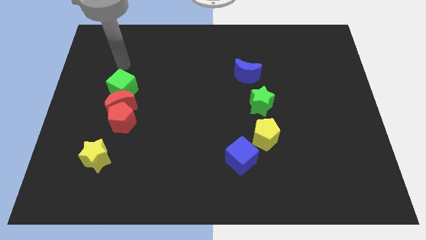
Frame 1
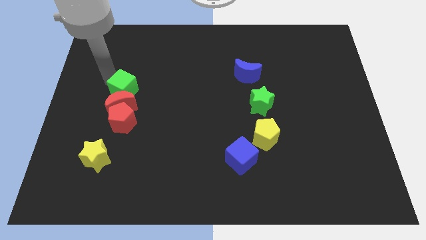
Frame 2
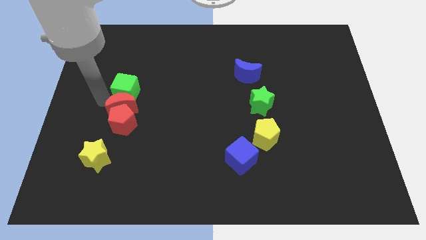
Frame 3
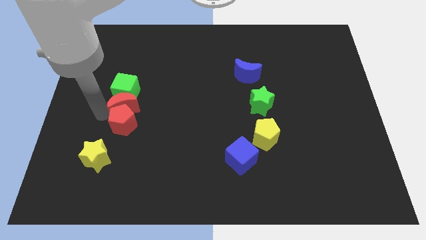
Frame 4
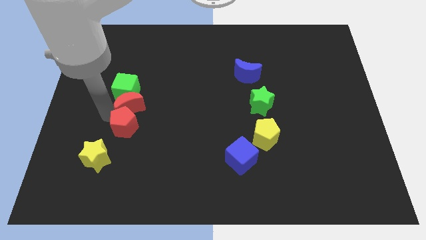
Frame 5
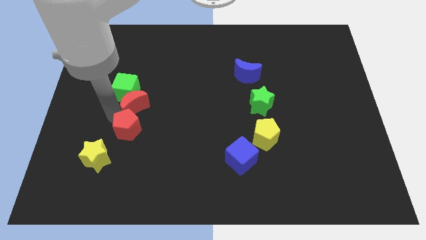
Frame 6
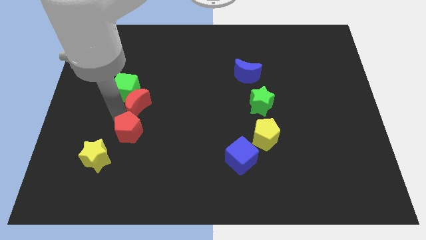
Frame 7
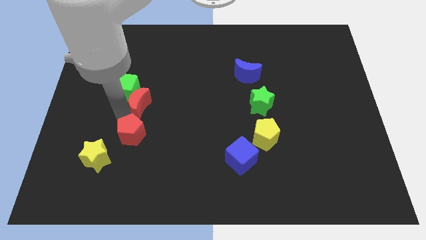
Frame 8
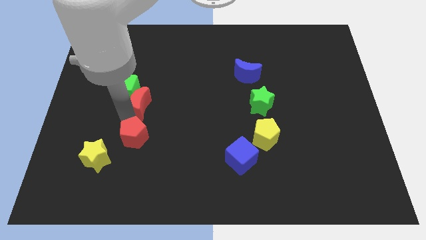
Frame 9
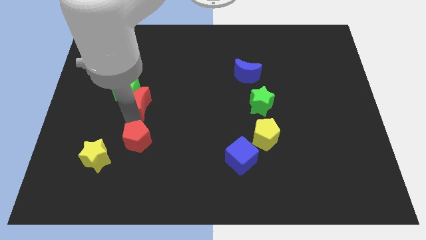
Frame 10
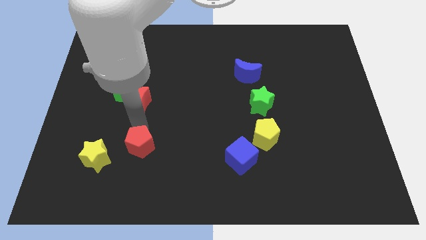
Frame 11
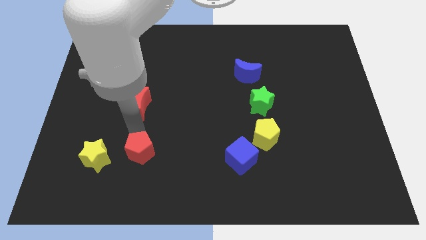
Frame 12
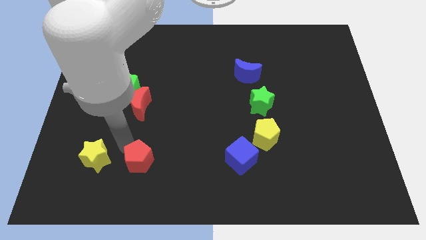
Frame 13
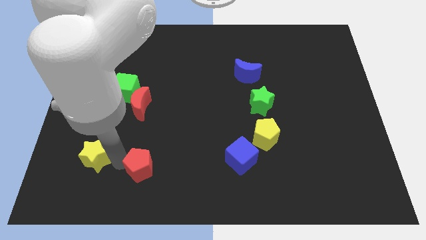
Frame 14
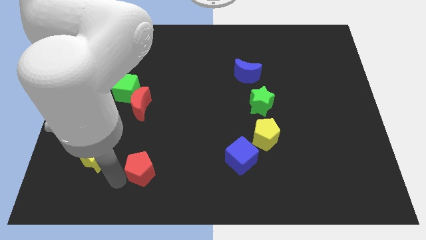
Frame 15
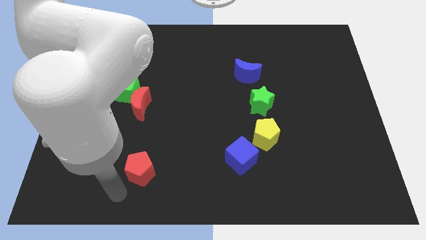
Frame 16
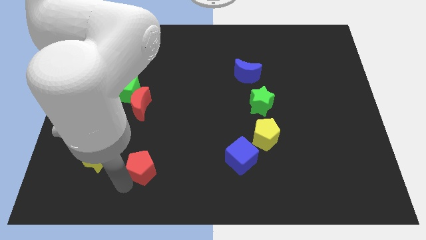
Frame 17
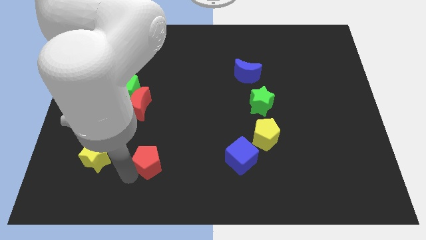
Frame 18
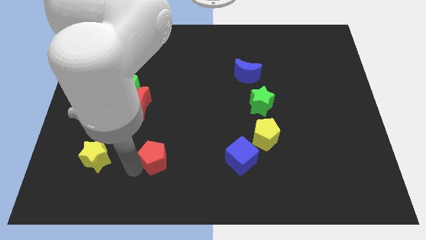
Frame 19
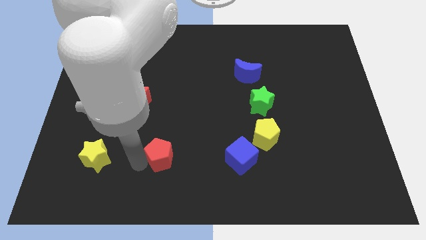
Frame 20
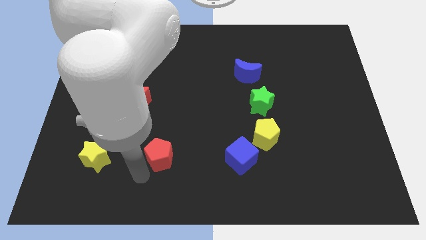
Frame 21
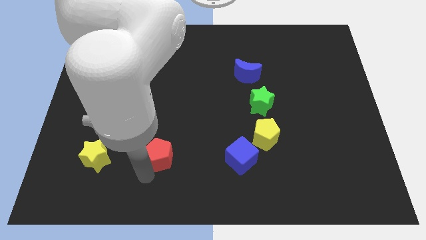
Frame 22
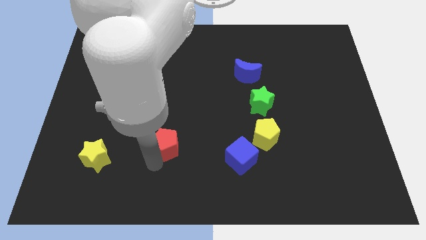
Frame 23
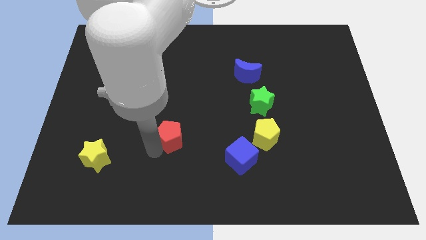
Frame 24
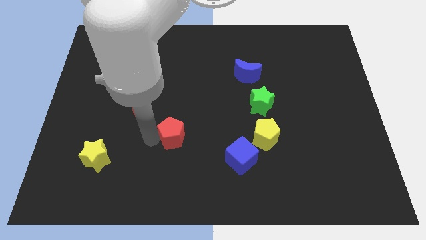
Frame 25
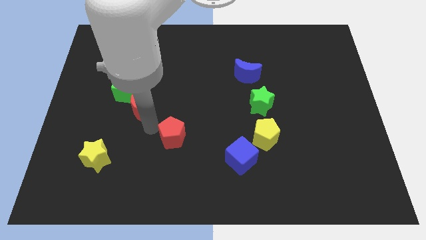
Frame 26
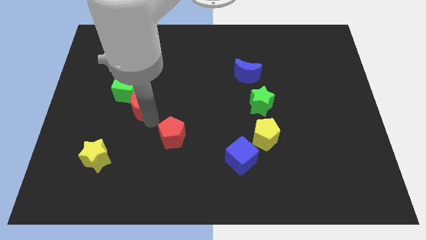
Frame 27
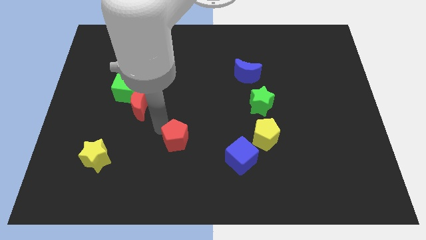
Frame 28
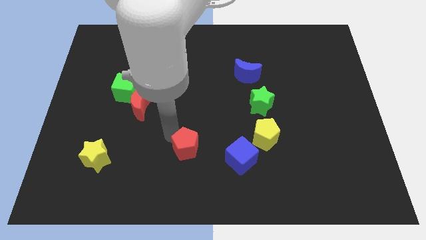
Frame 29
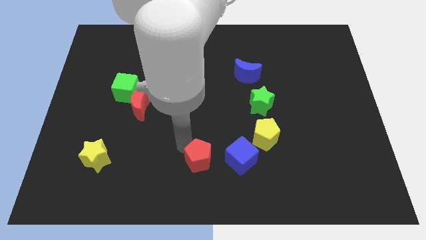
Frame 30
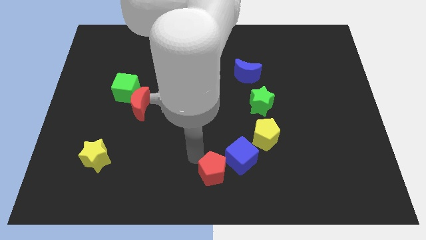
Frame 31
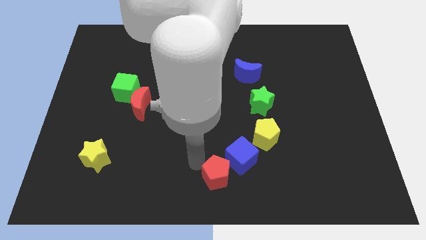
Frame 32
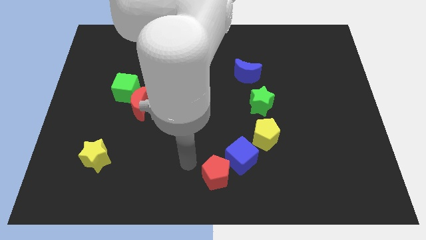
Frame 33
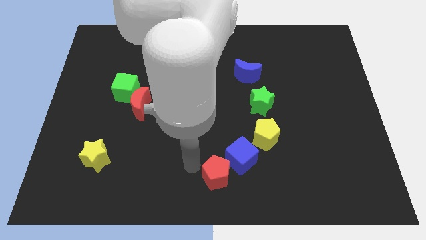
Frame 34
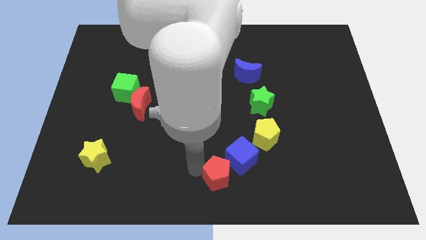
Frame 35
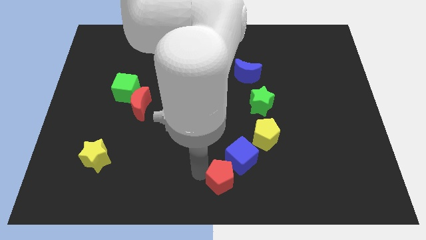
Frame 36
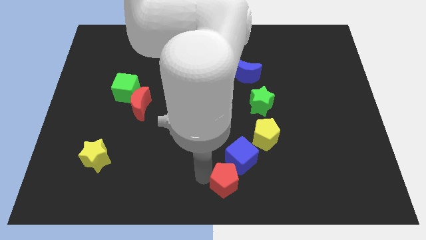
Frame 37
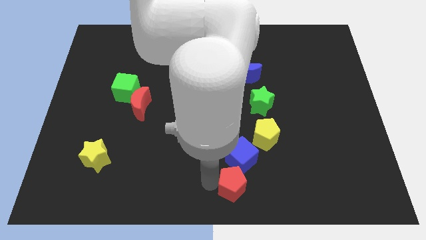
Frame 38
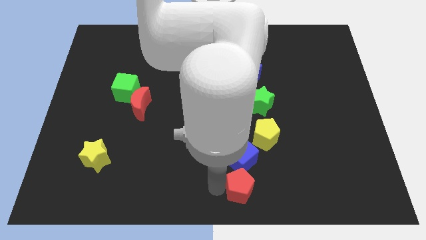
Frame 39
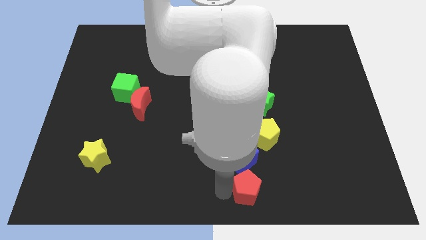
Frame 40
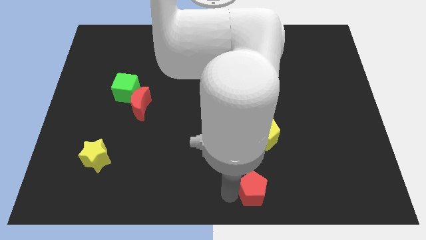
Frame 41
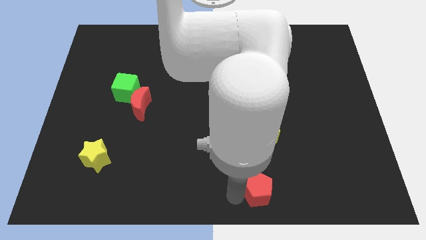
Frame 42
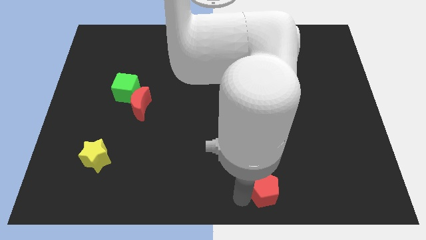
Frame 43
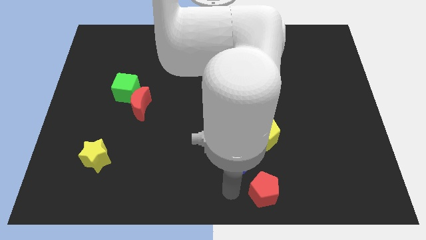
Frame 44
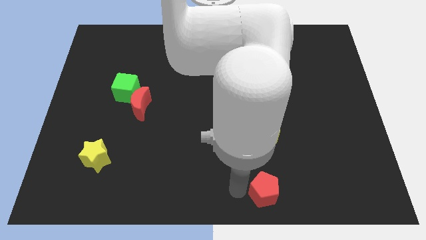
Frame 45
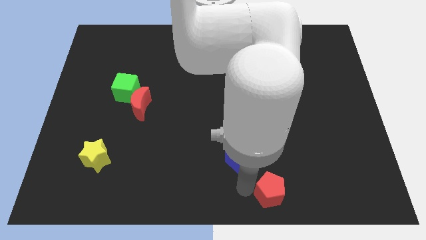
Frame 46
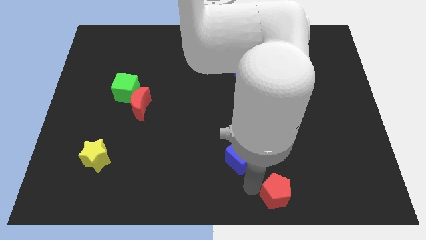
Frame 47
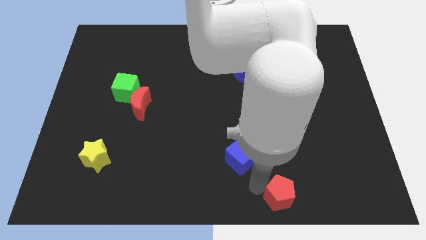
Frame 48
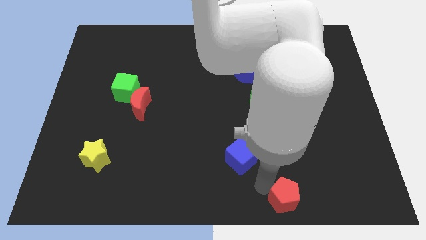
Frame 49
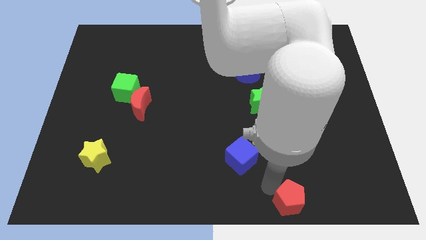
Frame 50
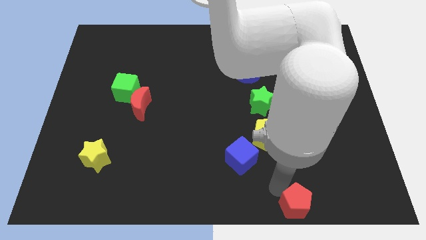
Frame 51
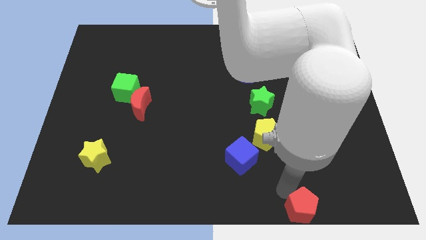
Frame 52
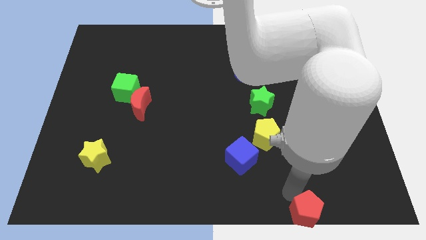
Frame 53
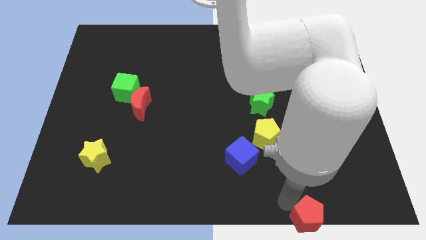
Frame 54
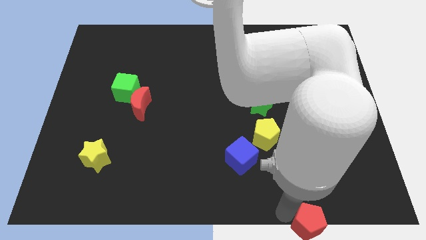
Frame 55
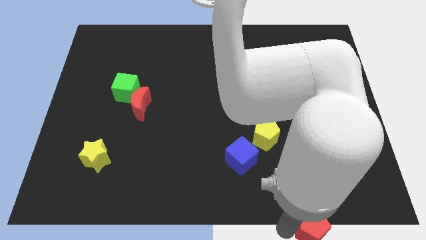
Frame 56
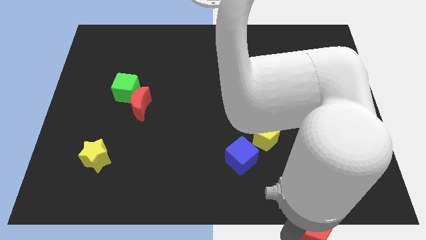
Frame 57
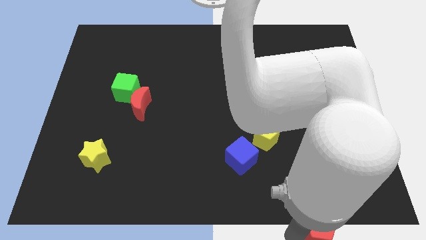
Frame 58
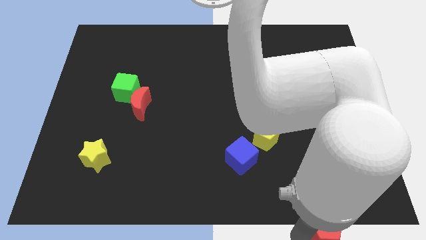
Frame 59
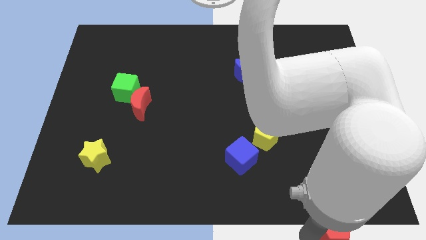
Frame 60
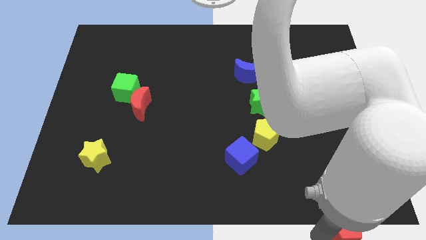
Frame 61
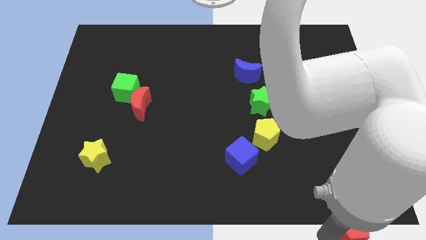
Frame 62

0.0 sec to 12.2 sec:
push the red pentagon to the lower right corner

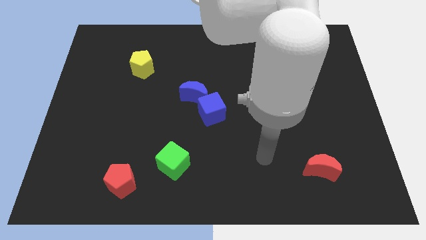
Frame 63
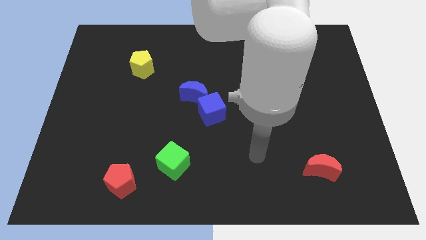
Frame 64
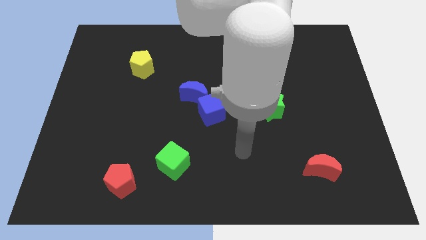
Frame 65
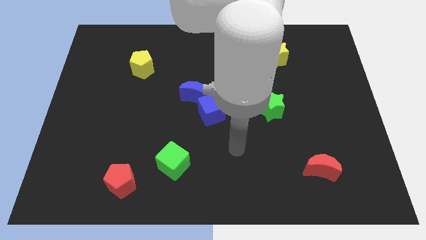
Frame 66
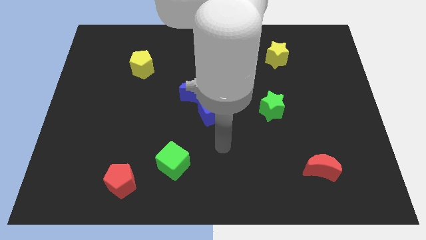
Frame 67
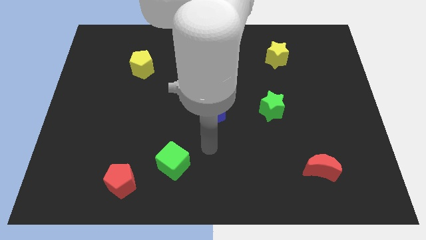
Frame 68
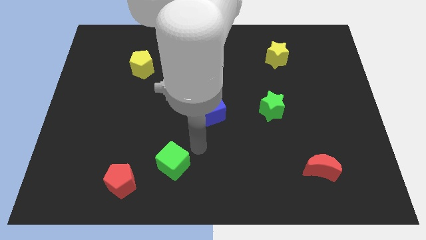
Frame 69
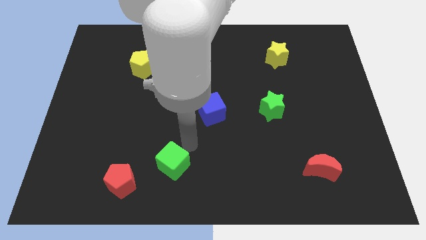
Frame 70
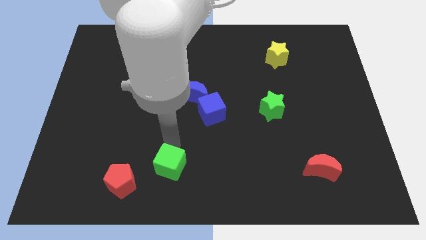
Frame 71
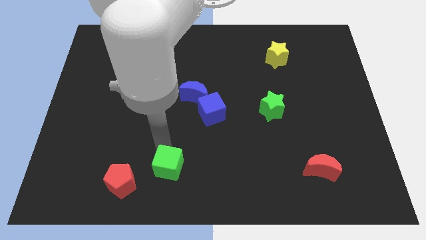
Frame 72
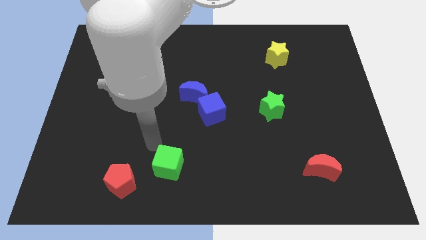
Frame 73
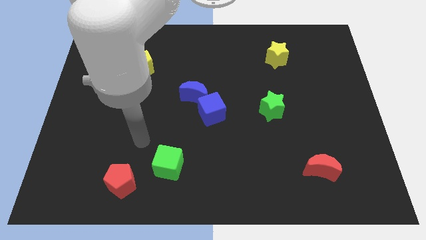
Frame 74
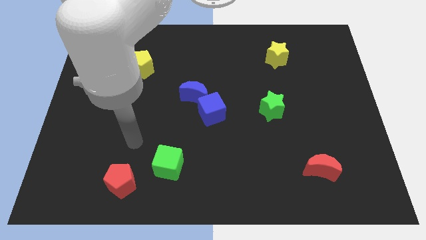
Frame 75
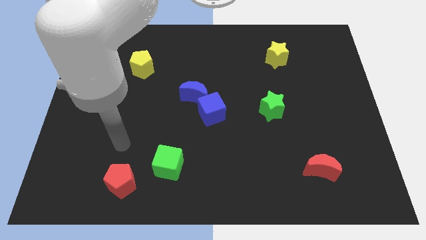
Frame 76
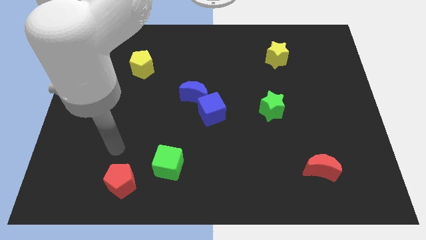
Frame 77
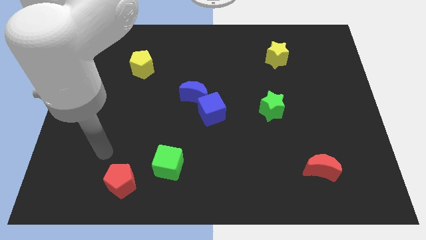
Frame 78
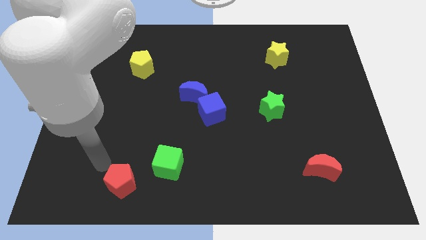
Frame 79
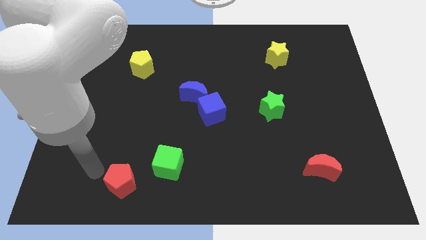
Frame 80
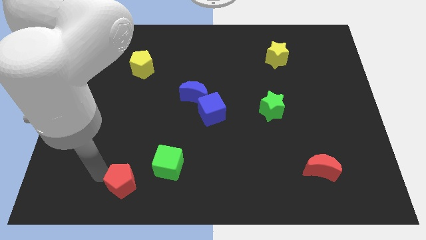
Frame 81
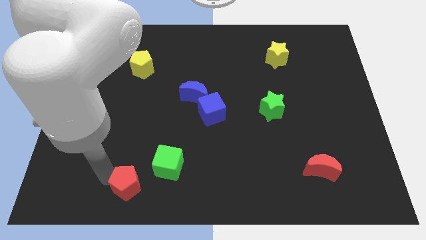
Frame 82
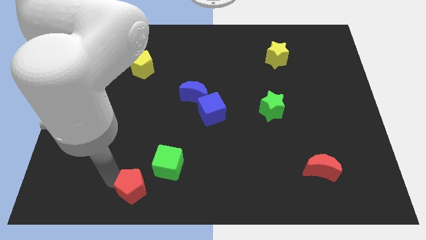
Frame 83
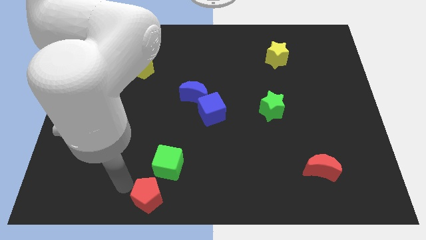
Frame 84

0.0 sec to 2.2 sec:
push the red pentagon to the bottom
